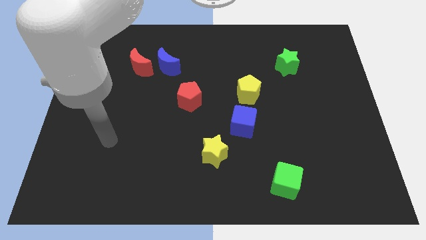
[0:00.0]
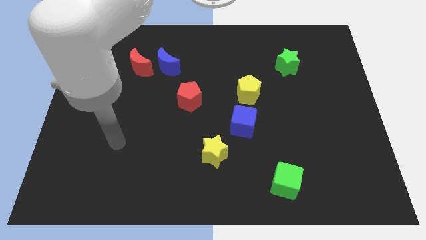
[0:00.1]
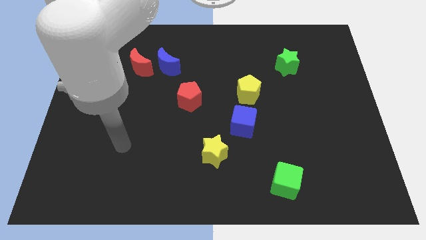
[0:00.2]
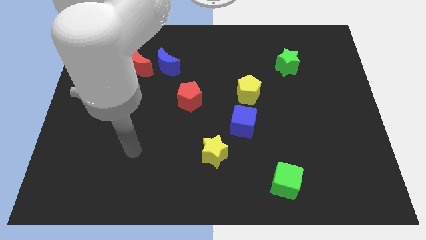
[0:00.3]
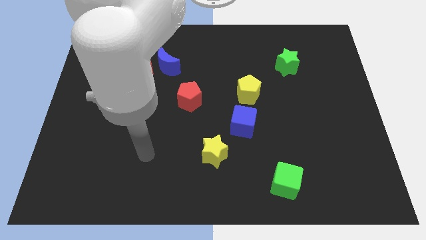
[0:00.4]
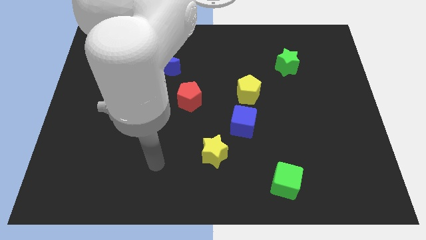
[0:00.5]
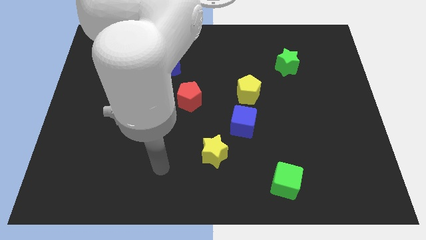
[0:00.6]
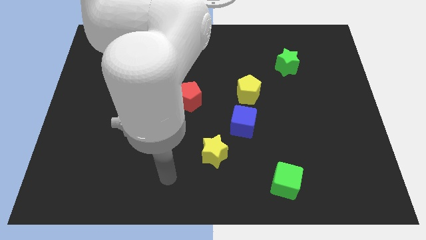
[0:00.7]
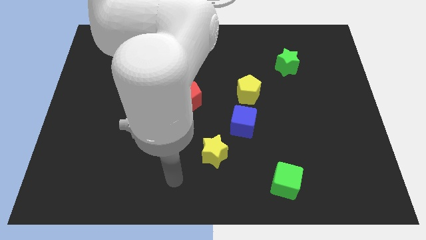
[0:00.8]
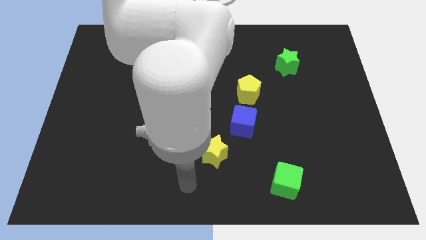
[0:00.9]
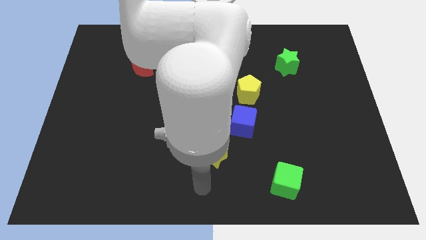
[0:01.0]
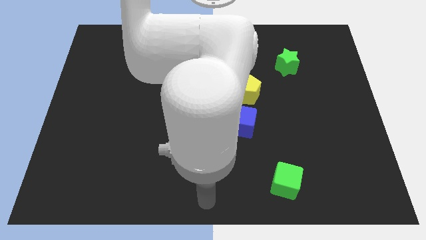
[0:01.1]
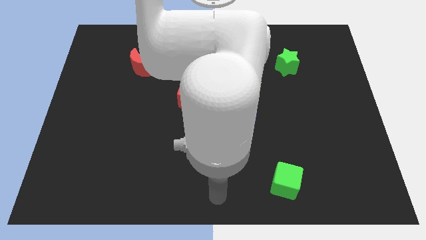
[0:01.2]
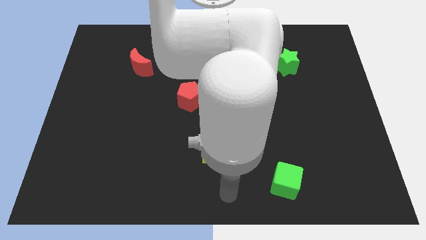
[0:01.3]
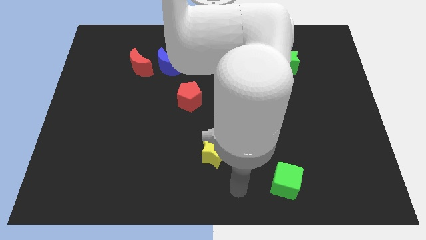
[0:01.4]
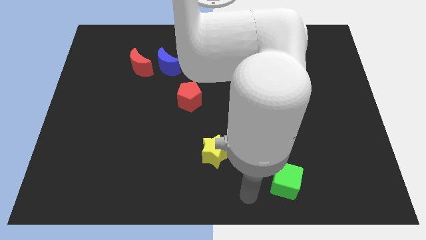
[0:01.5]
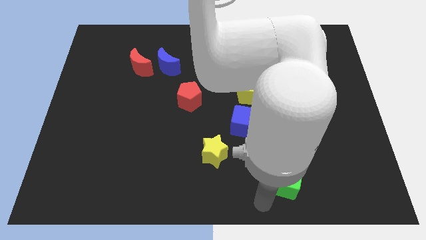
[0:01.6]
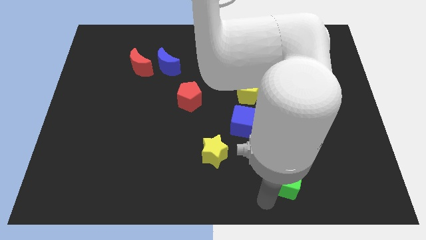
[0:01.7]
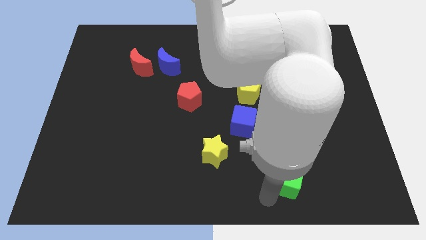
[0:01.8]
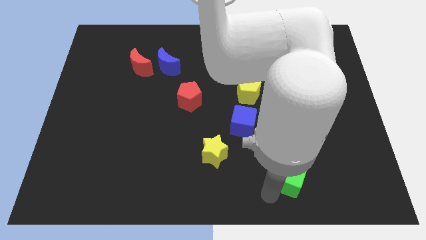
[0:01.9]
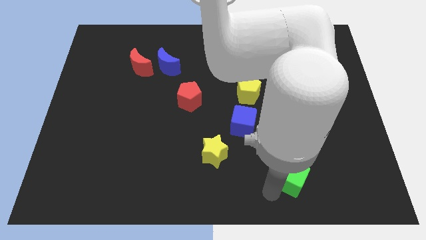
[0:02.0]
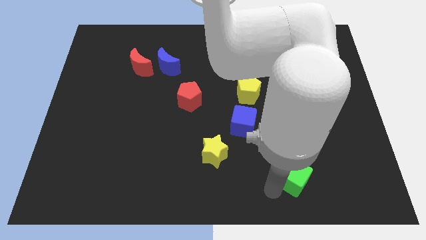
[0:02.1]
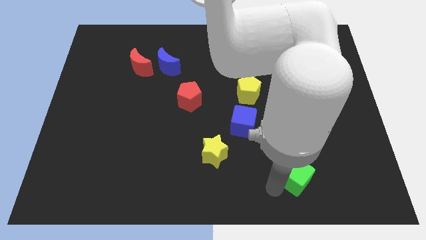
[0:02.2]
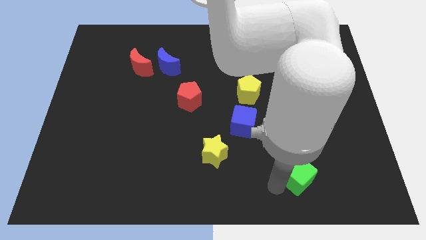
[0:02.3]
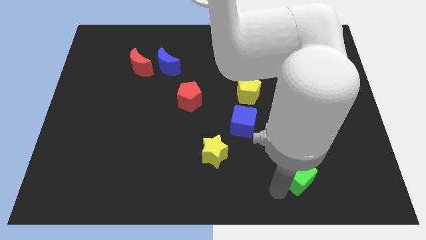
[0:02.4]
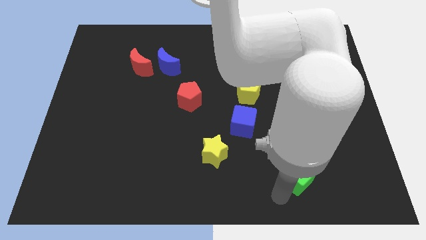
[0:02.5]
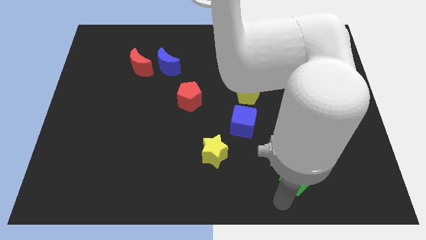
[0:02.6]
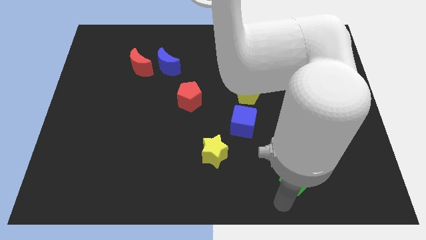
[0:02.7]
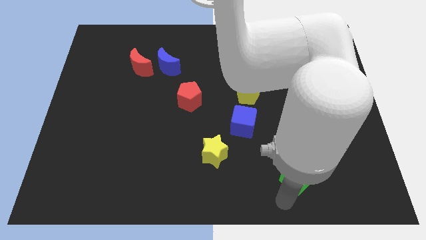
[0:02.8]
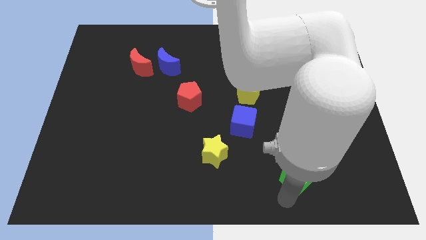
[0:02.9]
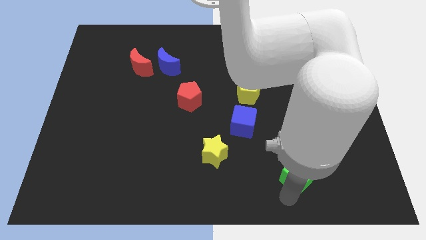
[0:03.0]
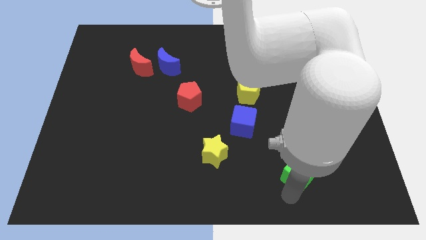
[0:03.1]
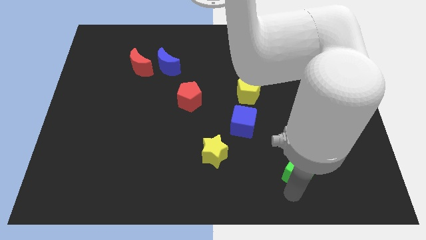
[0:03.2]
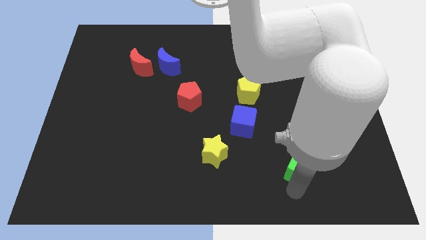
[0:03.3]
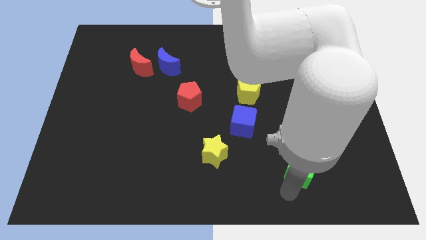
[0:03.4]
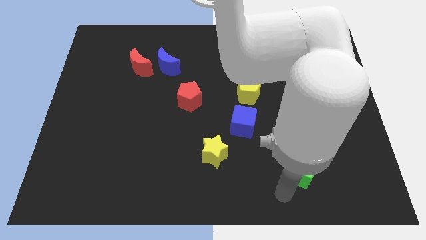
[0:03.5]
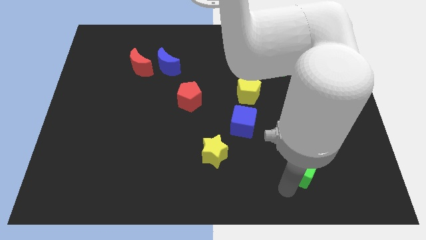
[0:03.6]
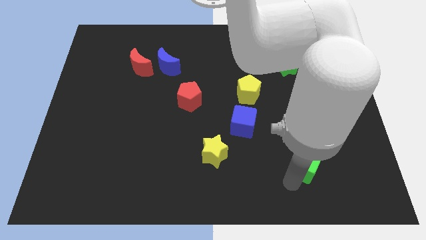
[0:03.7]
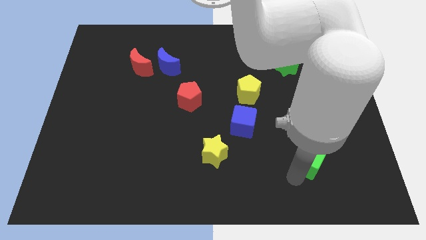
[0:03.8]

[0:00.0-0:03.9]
push the green cube upwards and to the right a little

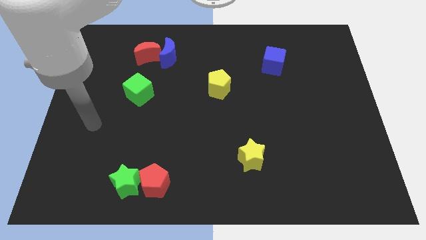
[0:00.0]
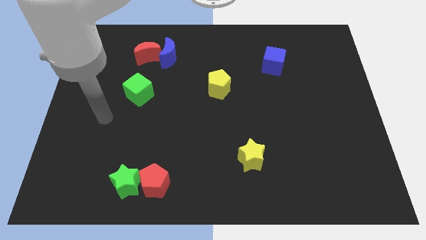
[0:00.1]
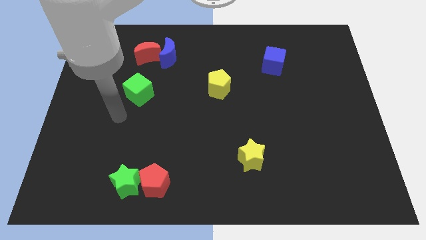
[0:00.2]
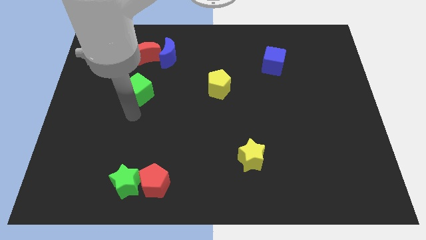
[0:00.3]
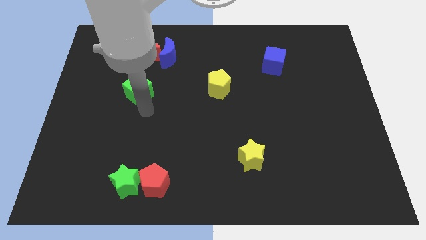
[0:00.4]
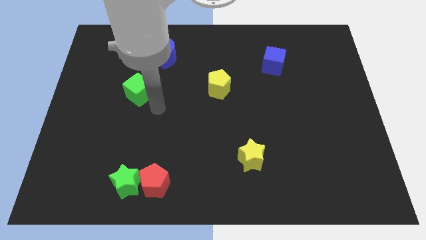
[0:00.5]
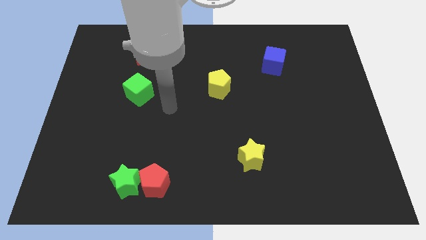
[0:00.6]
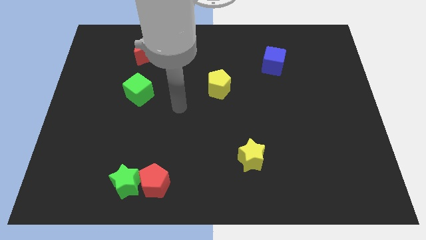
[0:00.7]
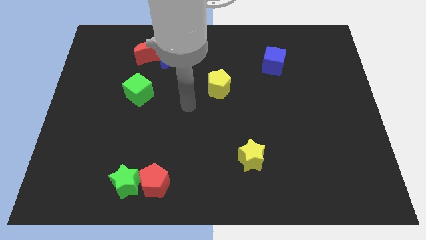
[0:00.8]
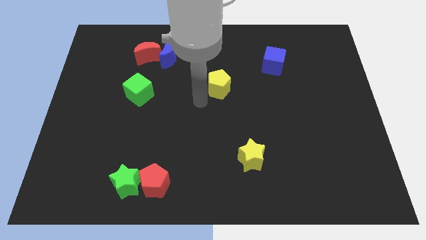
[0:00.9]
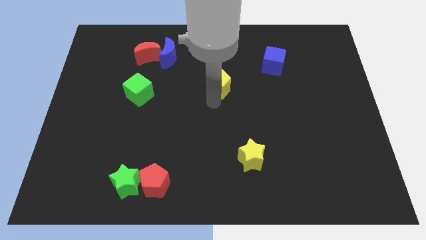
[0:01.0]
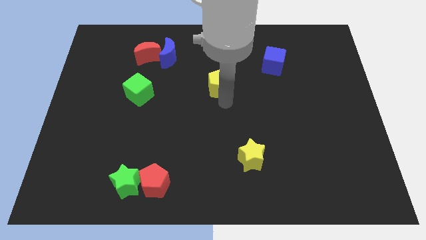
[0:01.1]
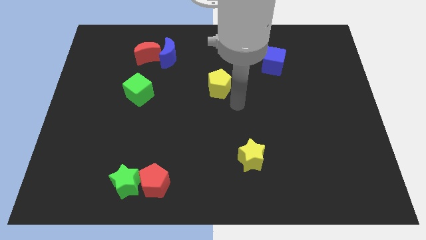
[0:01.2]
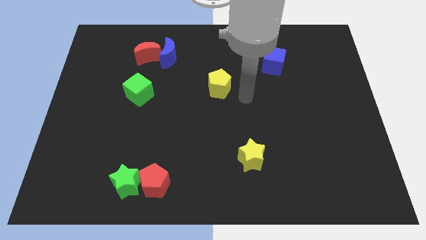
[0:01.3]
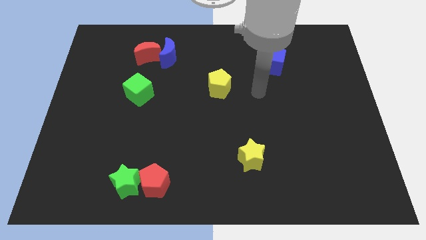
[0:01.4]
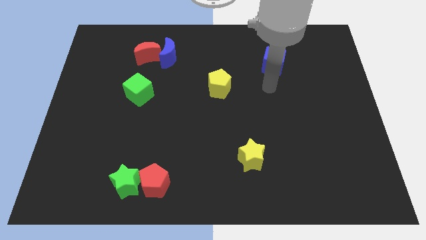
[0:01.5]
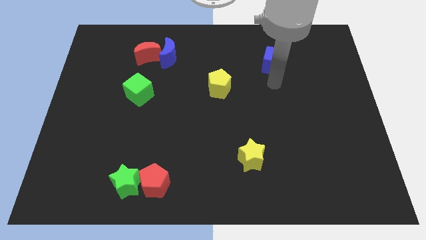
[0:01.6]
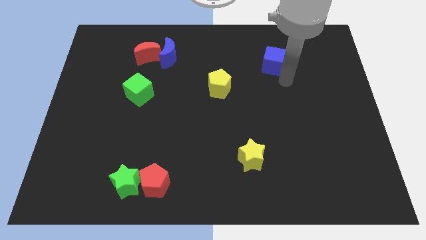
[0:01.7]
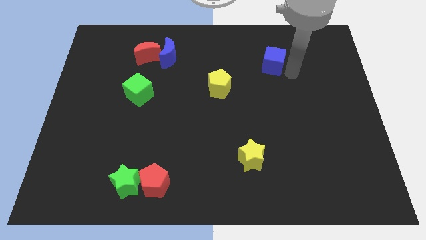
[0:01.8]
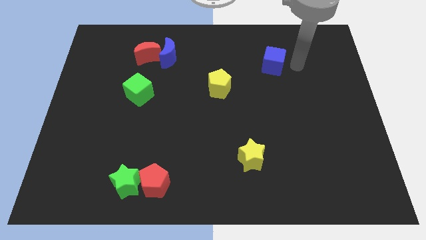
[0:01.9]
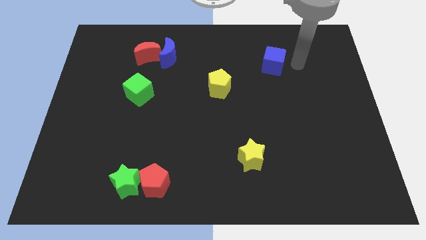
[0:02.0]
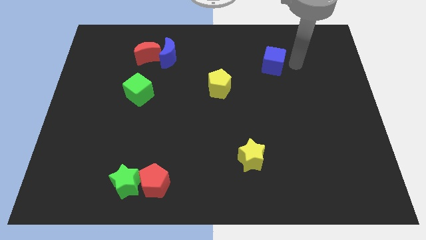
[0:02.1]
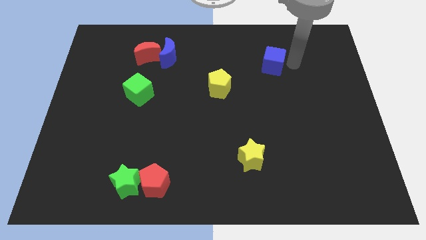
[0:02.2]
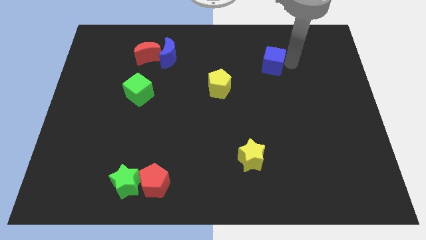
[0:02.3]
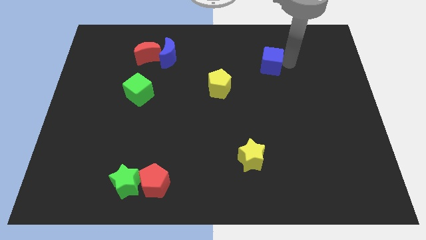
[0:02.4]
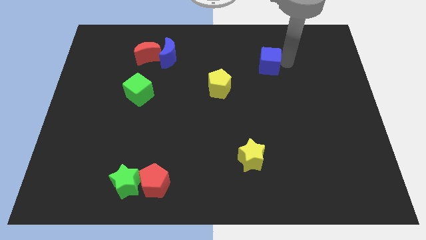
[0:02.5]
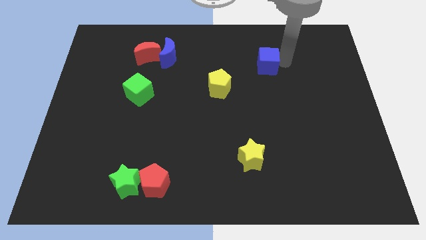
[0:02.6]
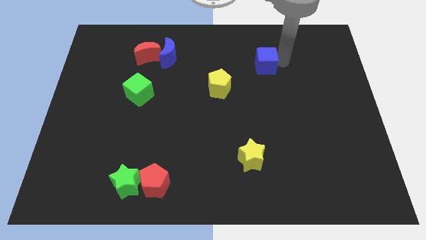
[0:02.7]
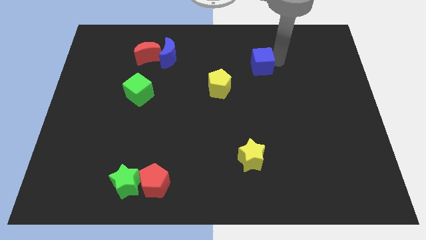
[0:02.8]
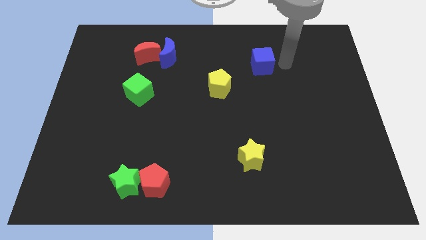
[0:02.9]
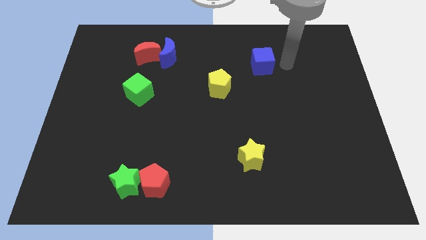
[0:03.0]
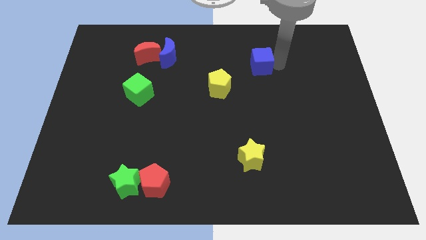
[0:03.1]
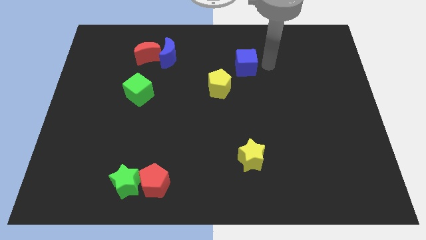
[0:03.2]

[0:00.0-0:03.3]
slightly push the blue cube to the left

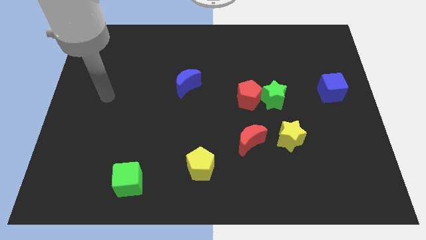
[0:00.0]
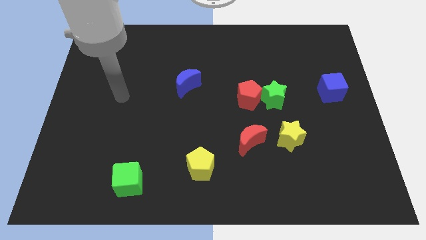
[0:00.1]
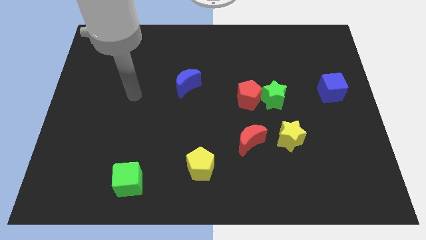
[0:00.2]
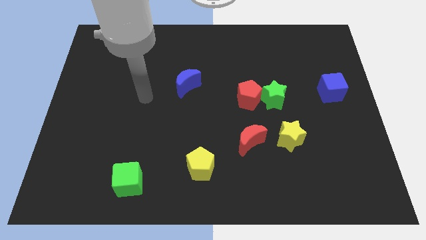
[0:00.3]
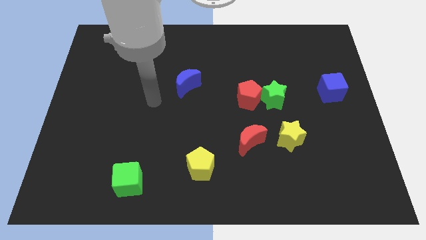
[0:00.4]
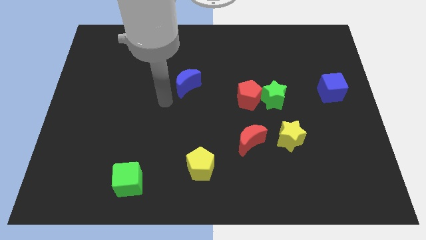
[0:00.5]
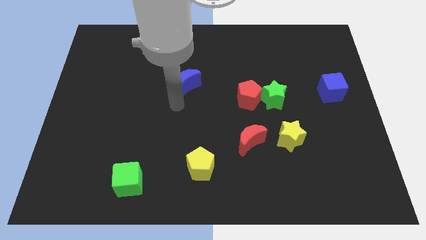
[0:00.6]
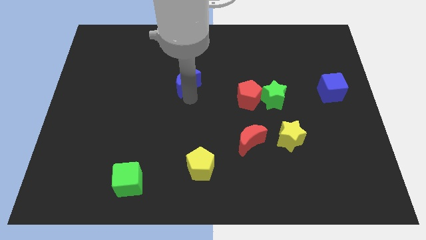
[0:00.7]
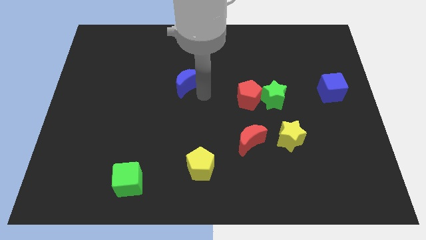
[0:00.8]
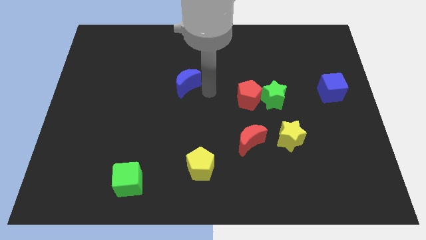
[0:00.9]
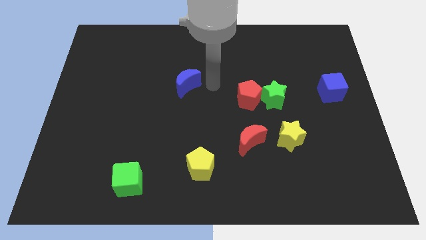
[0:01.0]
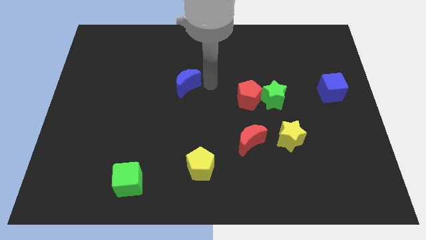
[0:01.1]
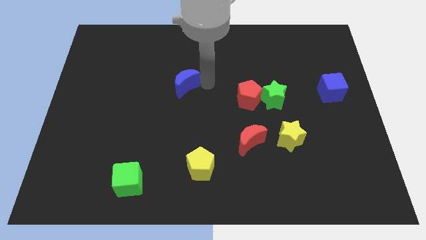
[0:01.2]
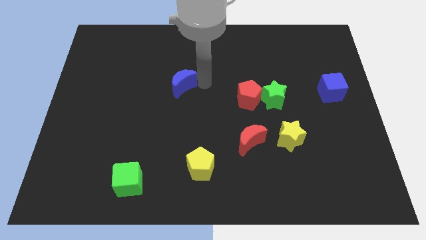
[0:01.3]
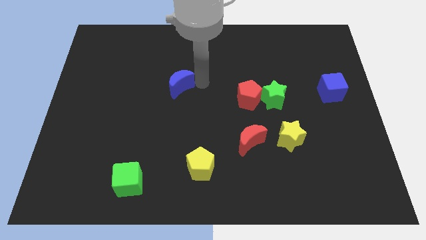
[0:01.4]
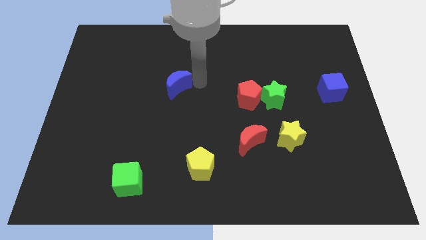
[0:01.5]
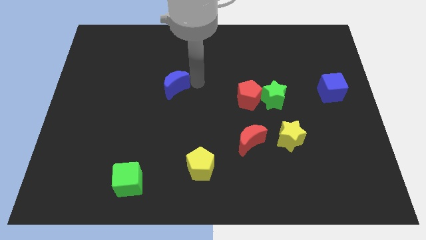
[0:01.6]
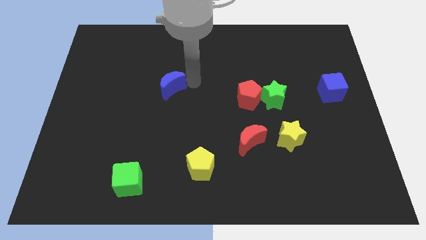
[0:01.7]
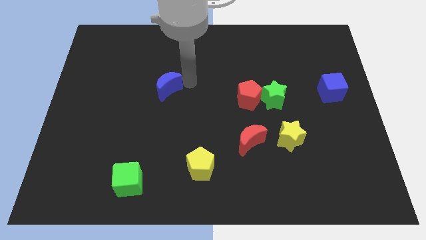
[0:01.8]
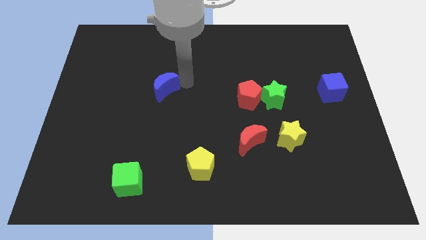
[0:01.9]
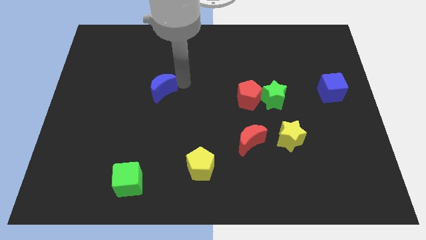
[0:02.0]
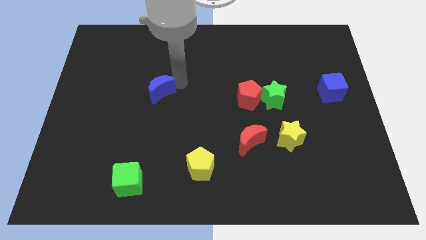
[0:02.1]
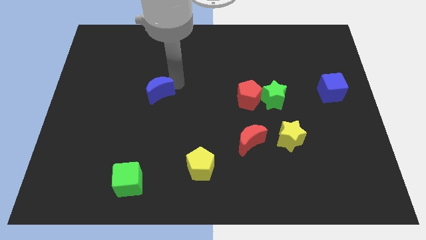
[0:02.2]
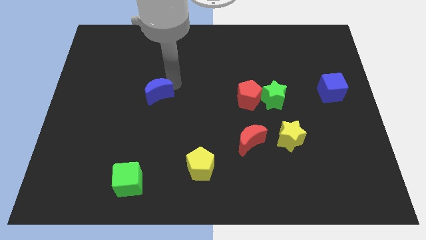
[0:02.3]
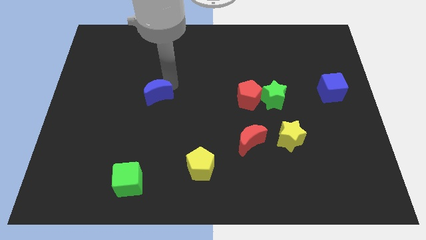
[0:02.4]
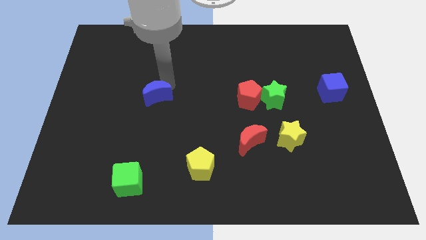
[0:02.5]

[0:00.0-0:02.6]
slightly push the blue moon to the left
